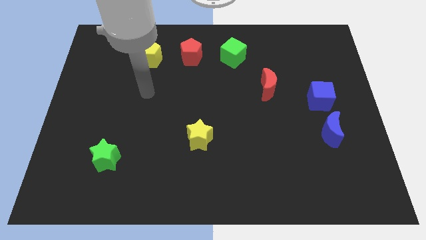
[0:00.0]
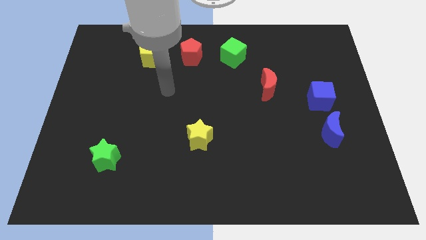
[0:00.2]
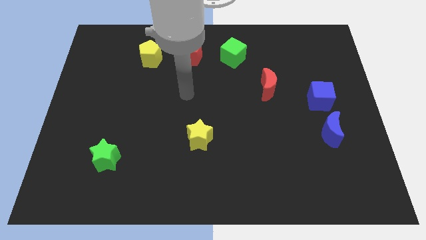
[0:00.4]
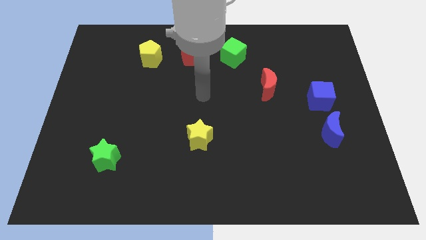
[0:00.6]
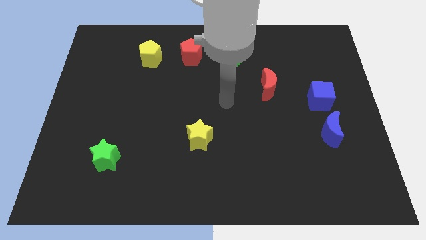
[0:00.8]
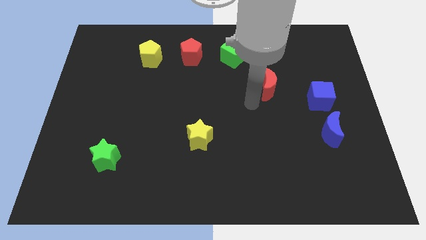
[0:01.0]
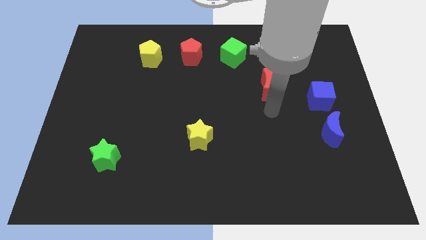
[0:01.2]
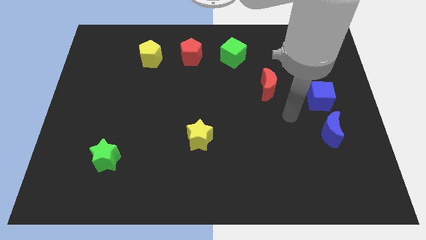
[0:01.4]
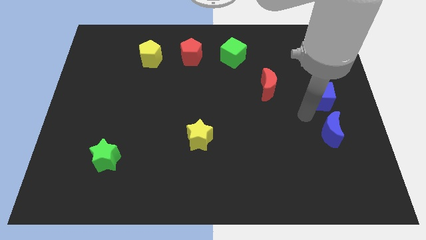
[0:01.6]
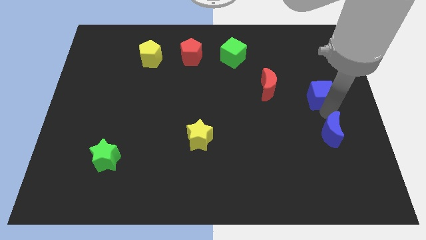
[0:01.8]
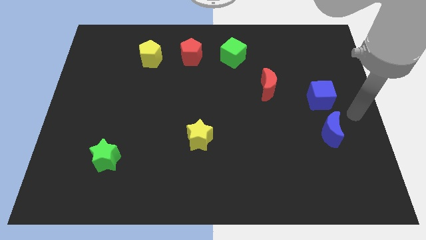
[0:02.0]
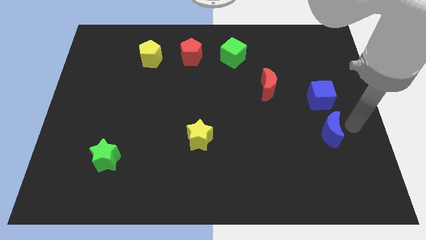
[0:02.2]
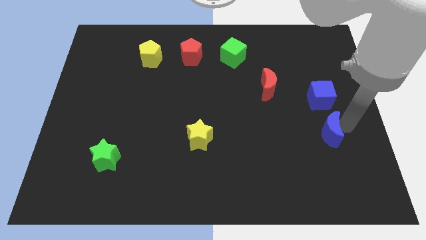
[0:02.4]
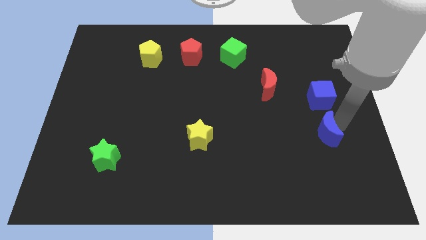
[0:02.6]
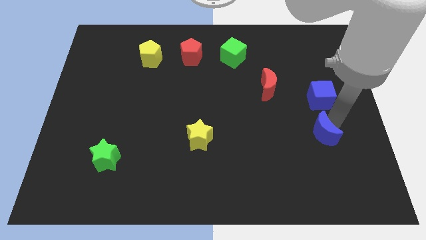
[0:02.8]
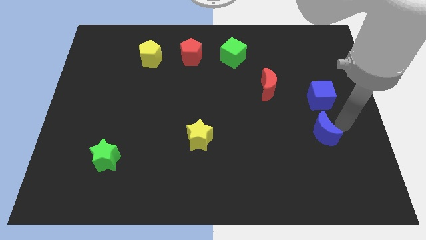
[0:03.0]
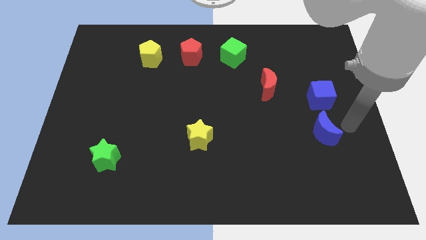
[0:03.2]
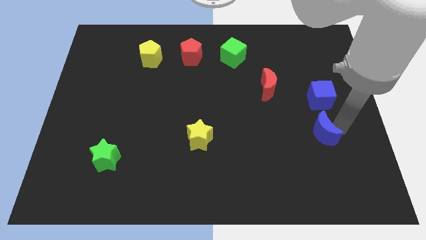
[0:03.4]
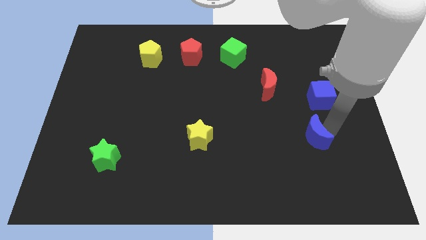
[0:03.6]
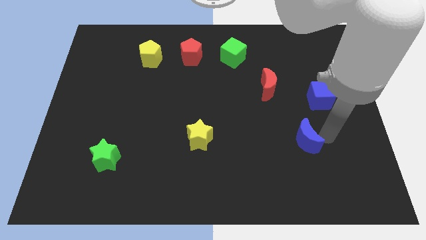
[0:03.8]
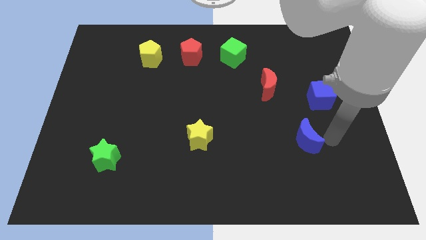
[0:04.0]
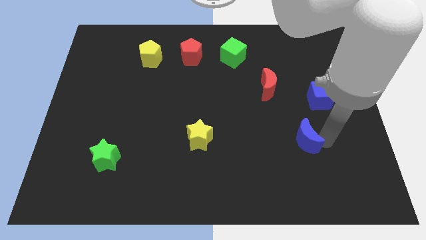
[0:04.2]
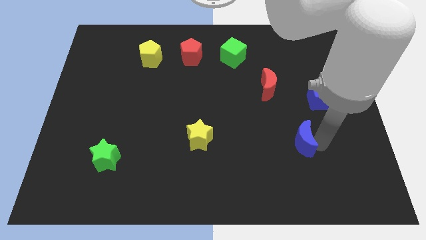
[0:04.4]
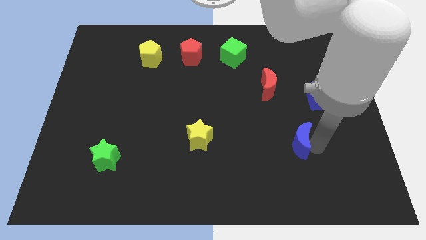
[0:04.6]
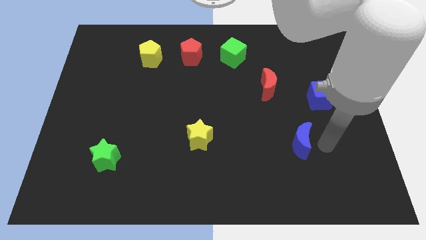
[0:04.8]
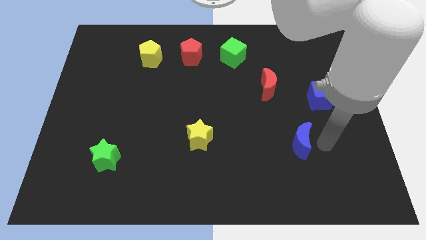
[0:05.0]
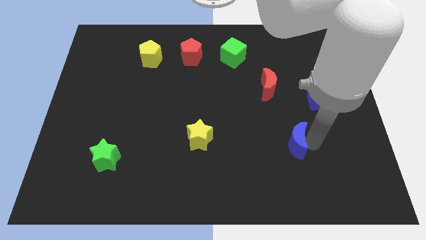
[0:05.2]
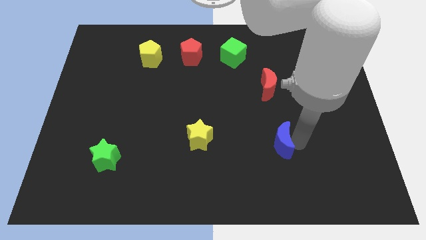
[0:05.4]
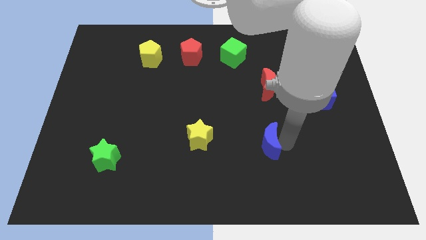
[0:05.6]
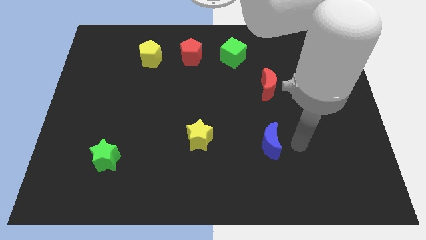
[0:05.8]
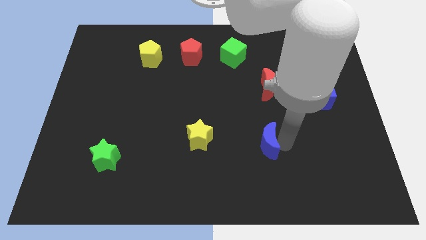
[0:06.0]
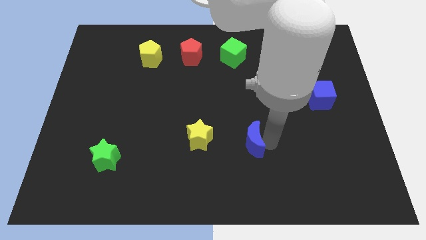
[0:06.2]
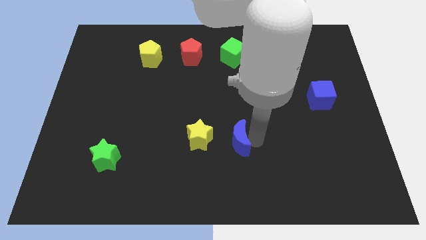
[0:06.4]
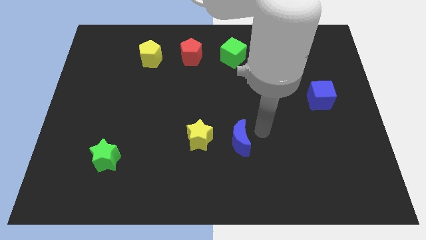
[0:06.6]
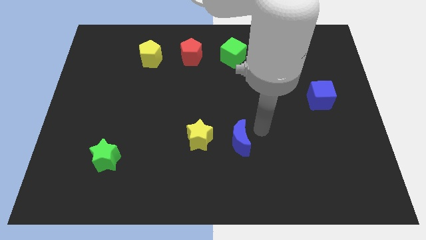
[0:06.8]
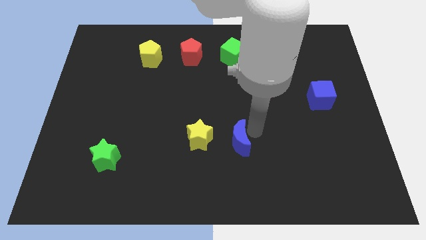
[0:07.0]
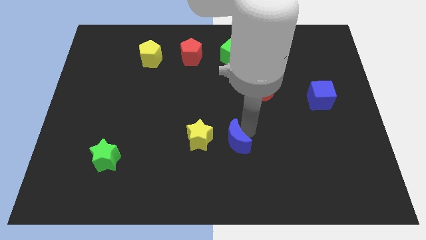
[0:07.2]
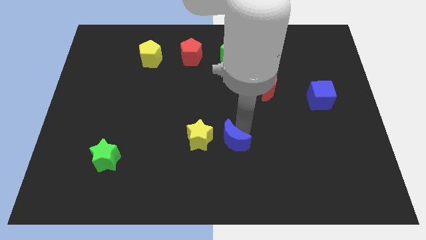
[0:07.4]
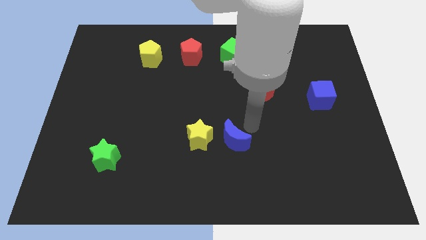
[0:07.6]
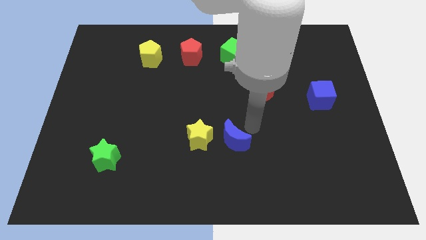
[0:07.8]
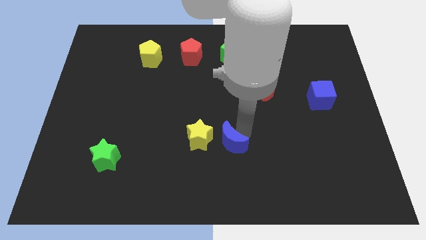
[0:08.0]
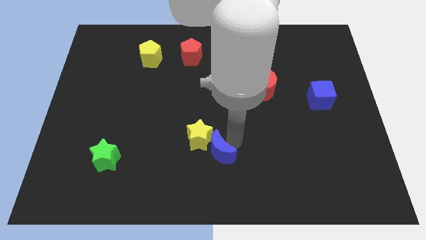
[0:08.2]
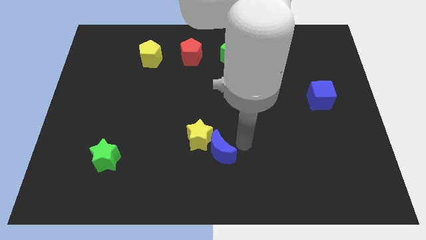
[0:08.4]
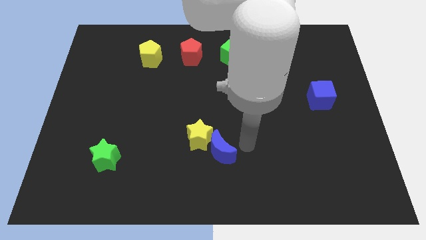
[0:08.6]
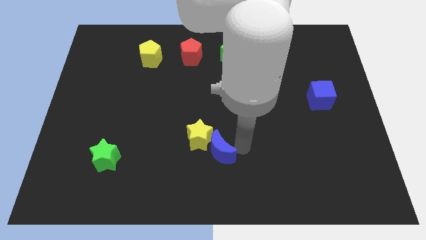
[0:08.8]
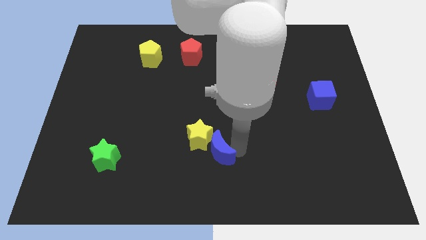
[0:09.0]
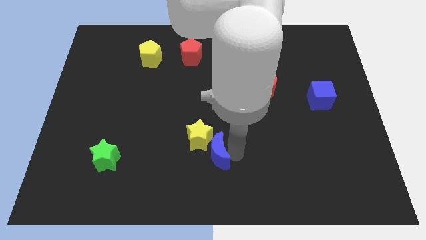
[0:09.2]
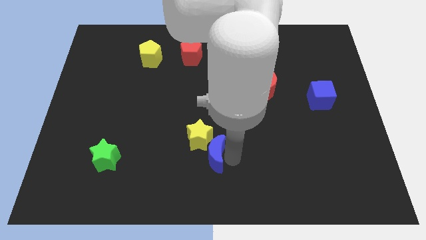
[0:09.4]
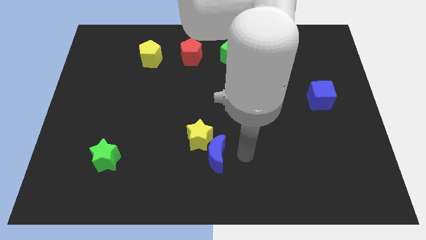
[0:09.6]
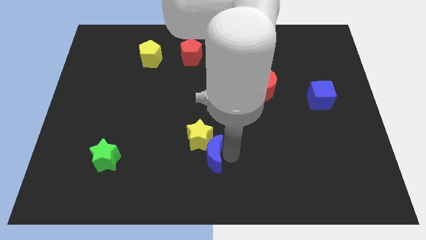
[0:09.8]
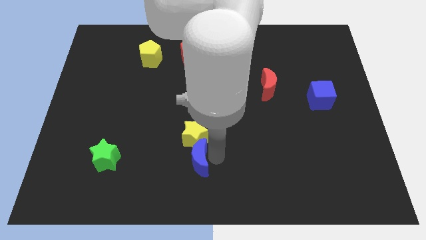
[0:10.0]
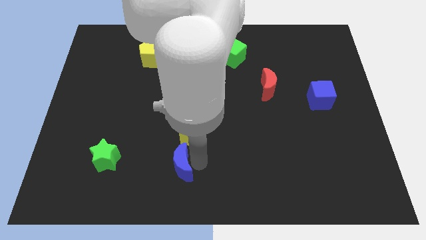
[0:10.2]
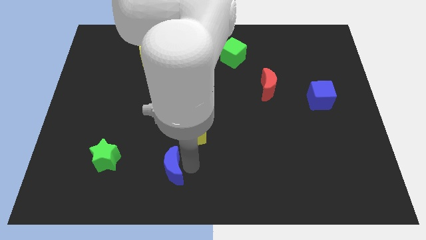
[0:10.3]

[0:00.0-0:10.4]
push the blue moon to the right of the green star

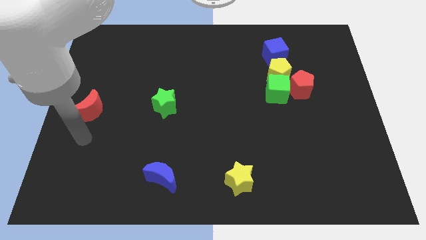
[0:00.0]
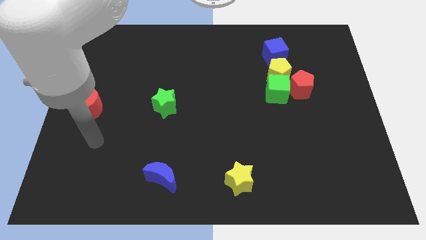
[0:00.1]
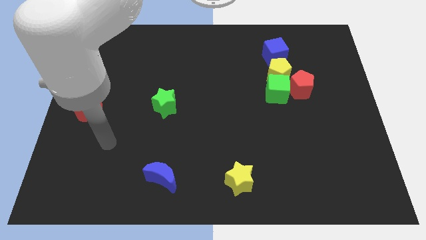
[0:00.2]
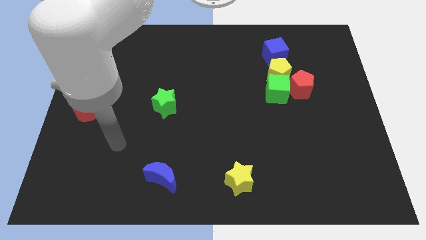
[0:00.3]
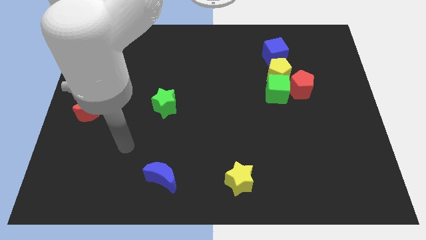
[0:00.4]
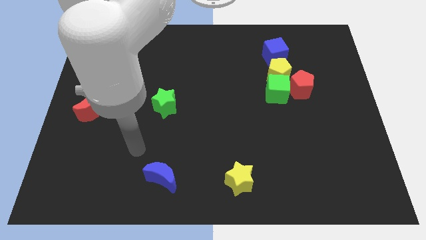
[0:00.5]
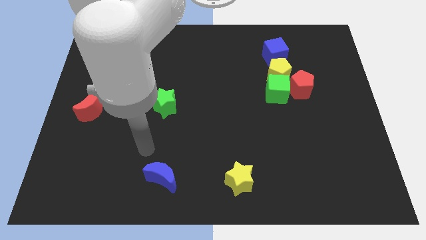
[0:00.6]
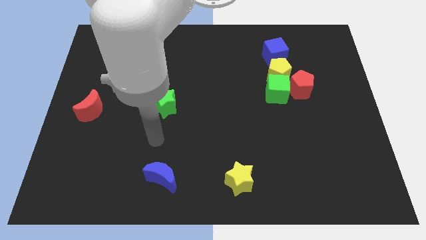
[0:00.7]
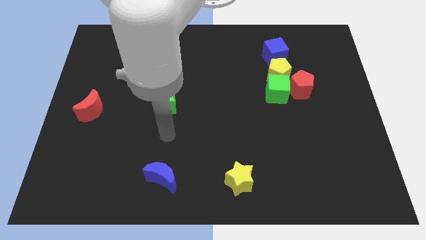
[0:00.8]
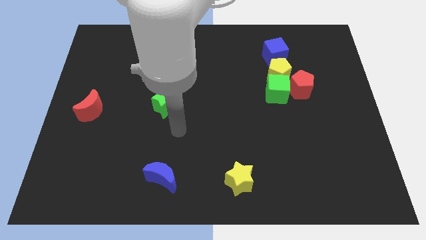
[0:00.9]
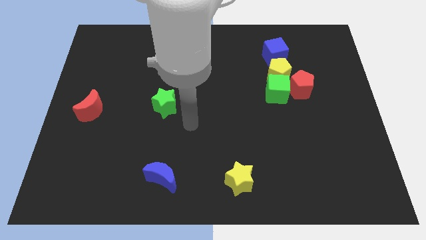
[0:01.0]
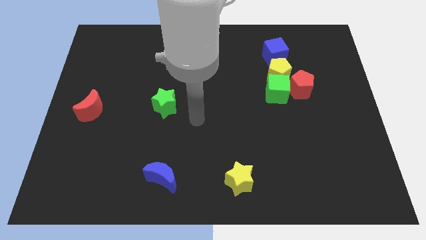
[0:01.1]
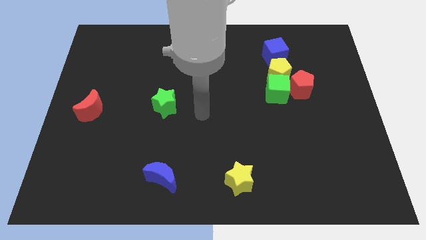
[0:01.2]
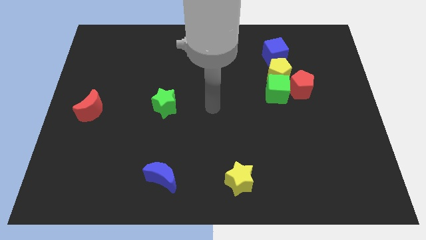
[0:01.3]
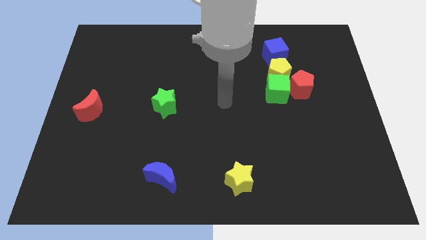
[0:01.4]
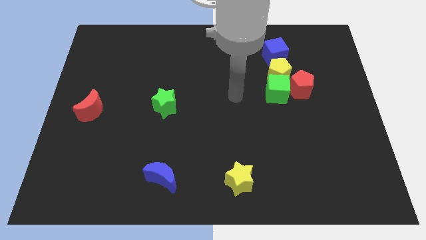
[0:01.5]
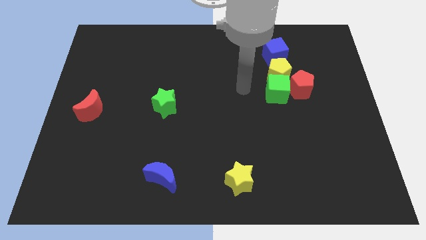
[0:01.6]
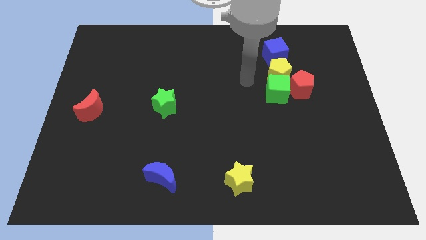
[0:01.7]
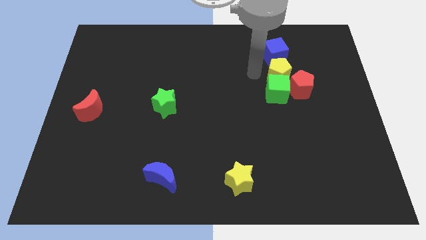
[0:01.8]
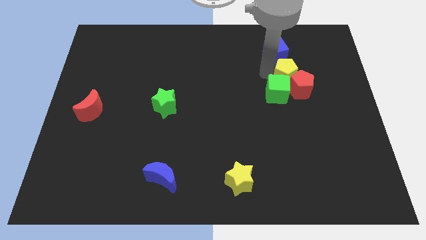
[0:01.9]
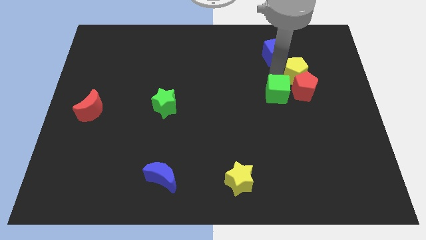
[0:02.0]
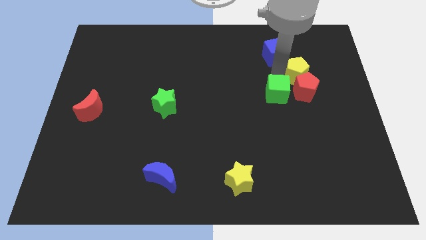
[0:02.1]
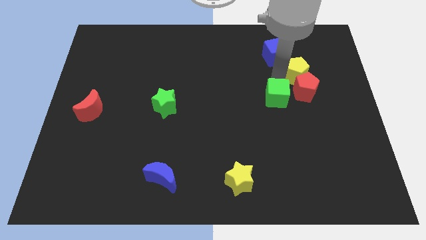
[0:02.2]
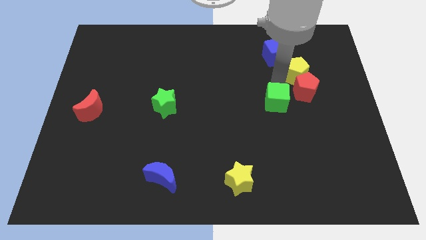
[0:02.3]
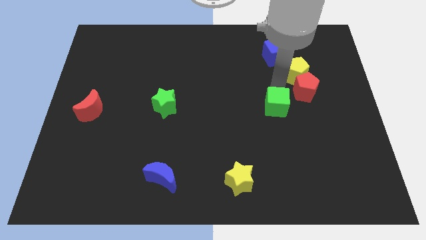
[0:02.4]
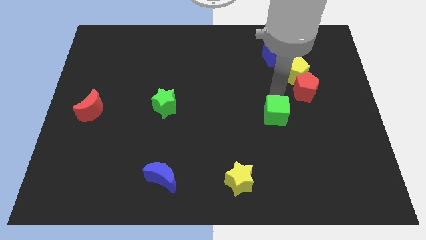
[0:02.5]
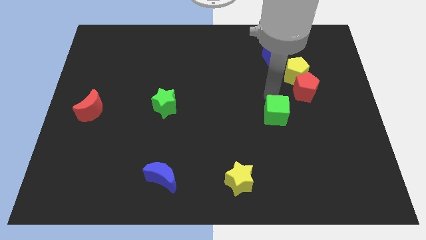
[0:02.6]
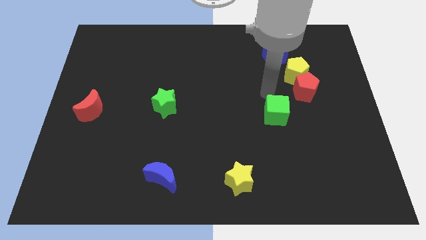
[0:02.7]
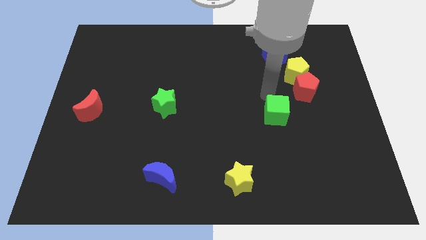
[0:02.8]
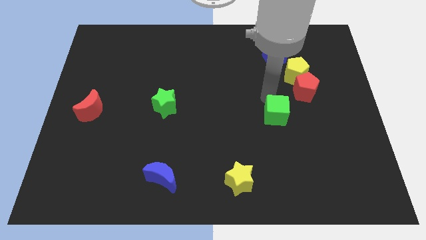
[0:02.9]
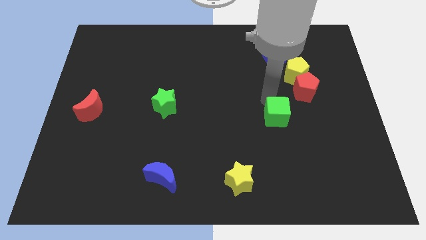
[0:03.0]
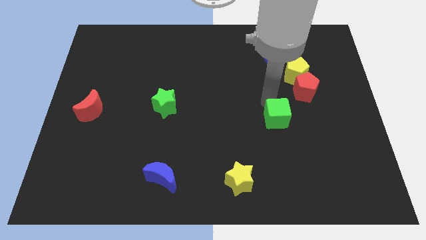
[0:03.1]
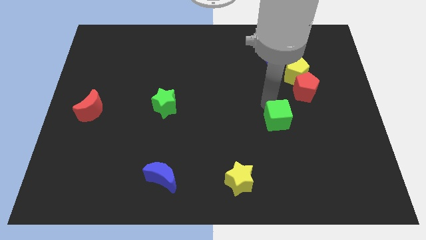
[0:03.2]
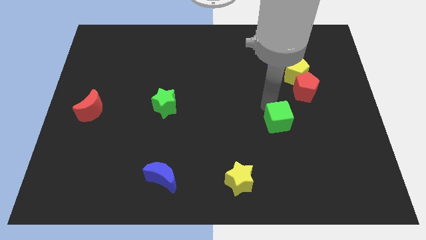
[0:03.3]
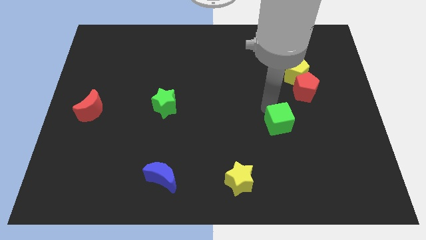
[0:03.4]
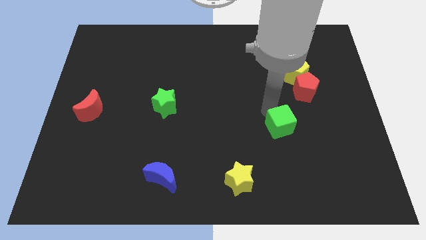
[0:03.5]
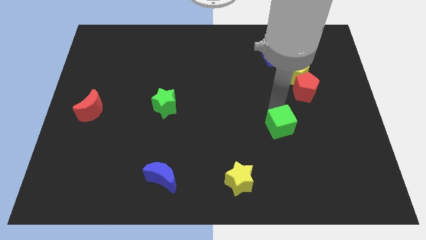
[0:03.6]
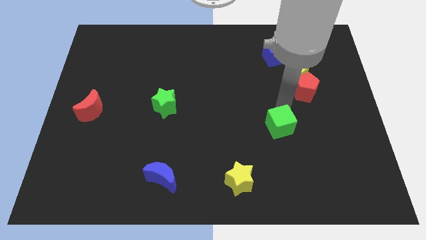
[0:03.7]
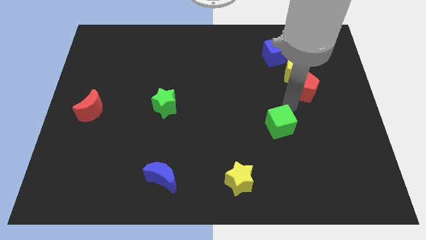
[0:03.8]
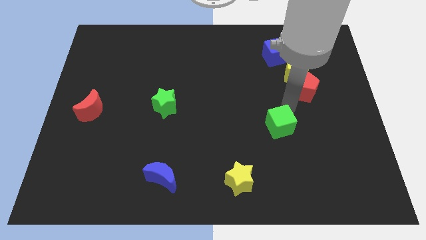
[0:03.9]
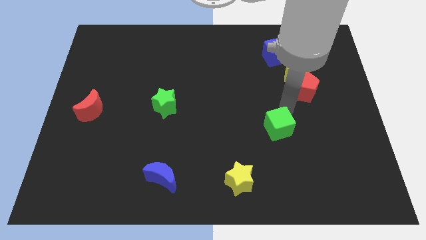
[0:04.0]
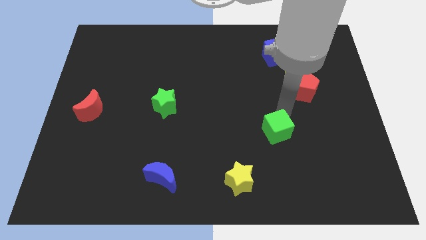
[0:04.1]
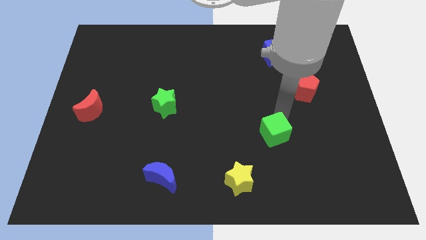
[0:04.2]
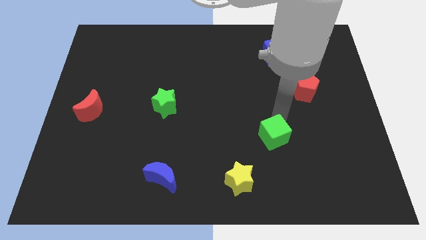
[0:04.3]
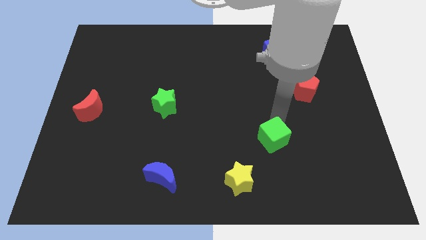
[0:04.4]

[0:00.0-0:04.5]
move the green cube to the top right side of the yellow star
